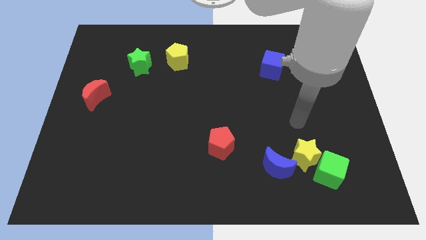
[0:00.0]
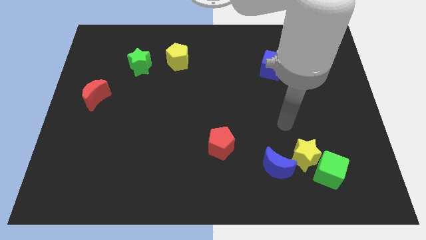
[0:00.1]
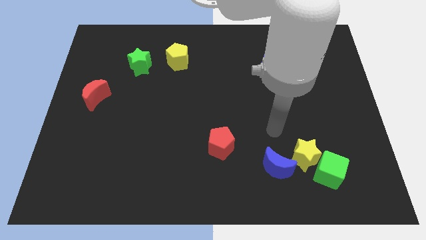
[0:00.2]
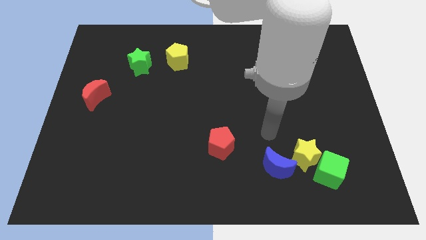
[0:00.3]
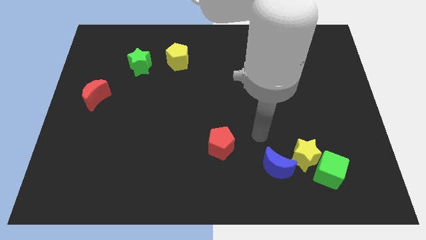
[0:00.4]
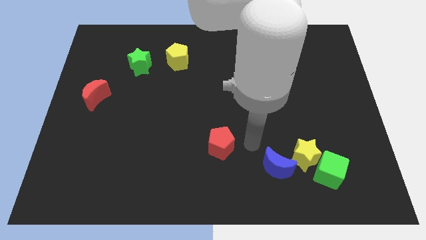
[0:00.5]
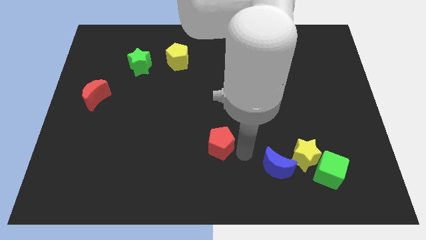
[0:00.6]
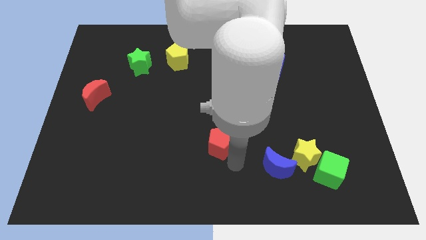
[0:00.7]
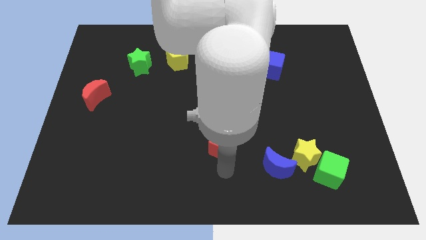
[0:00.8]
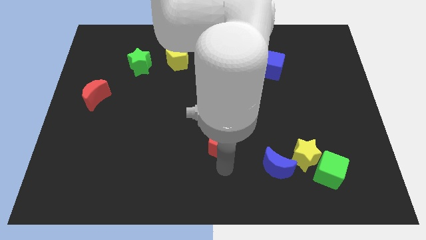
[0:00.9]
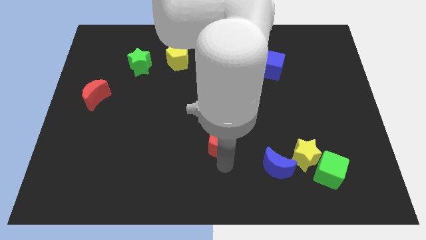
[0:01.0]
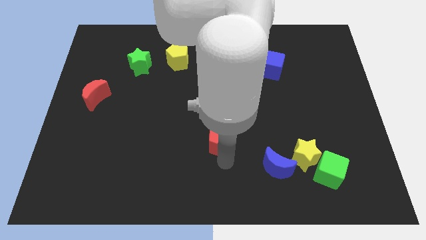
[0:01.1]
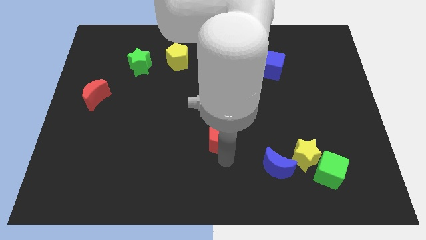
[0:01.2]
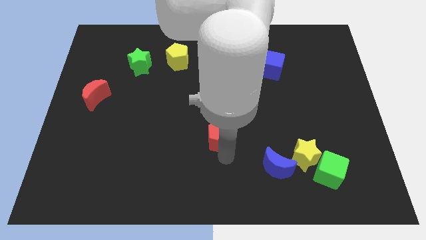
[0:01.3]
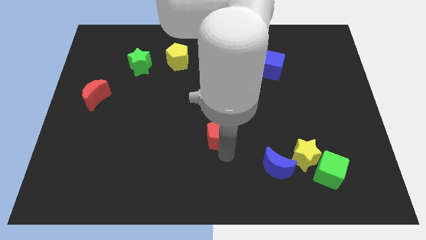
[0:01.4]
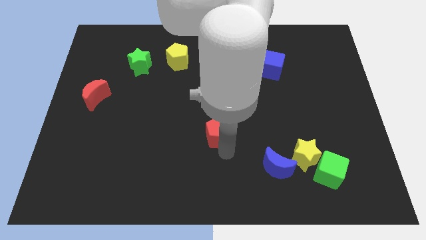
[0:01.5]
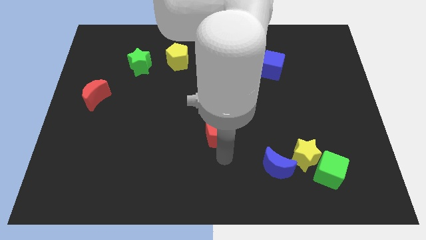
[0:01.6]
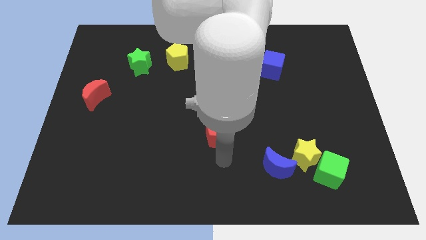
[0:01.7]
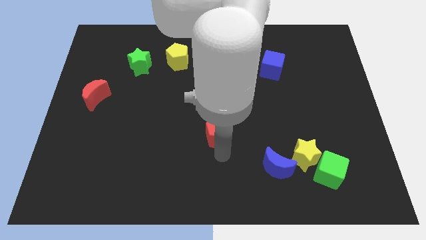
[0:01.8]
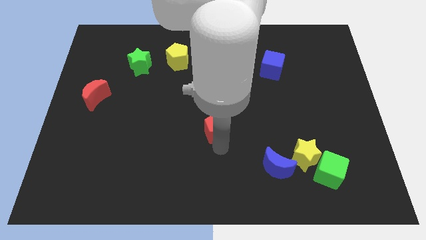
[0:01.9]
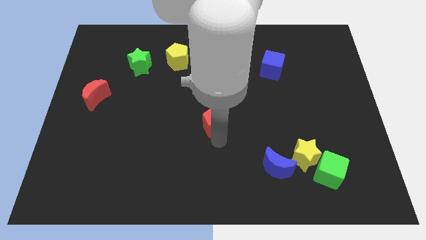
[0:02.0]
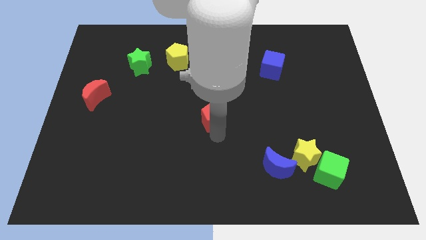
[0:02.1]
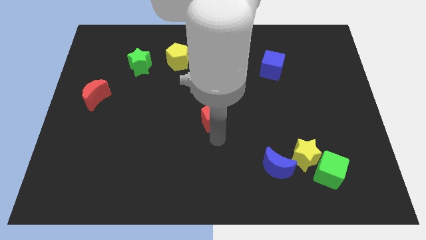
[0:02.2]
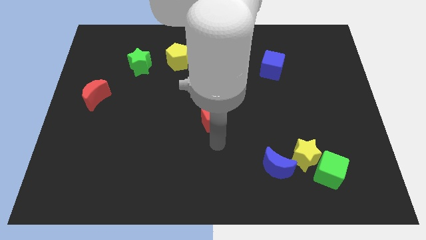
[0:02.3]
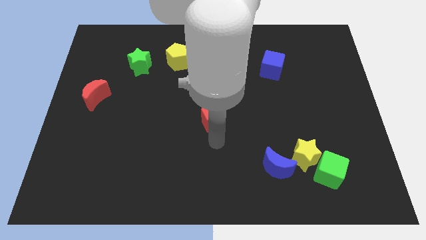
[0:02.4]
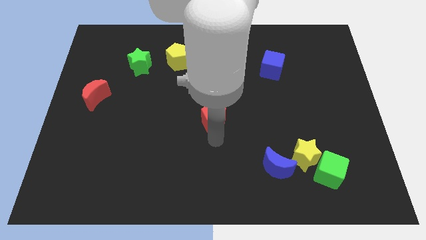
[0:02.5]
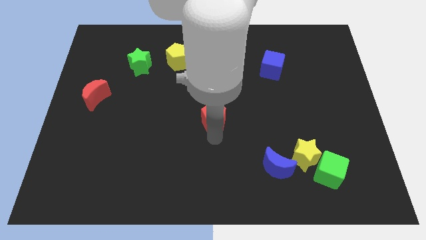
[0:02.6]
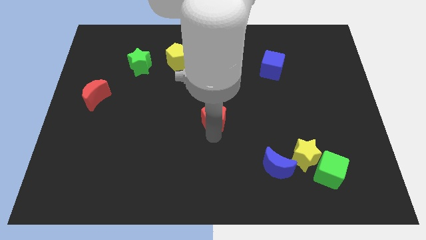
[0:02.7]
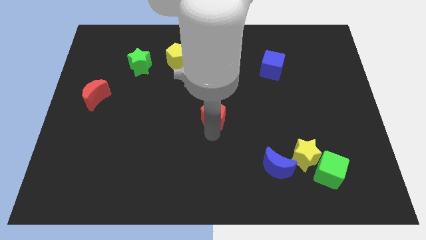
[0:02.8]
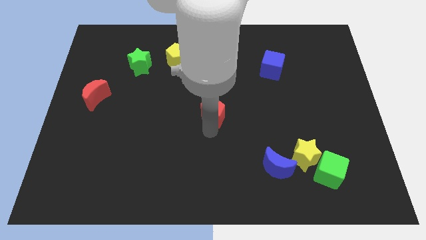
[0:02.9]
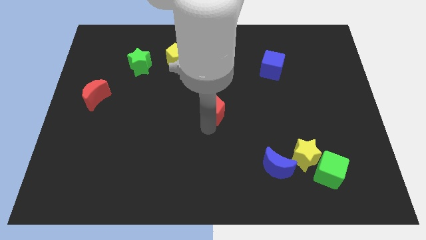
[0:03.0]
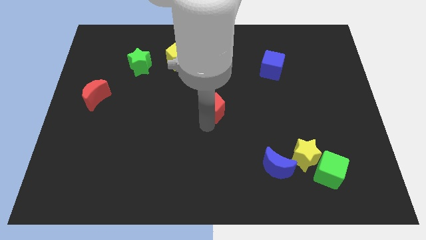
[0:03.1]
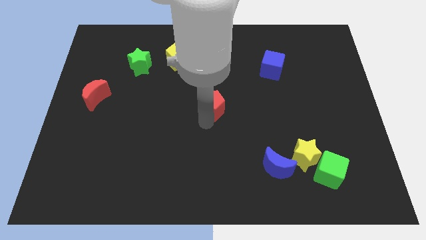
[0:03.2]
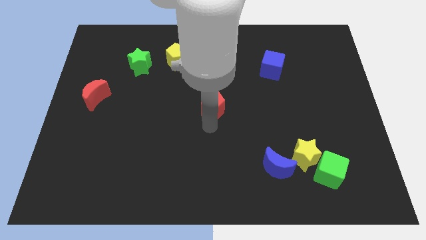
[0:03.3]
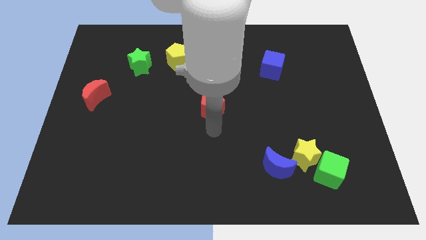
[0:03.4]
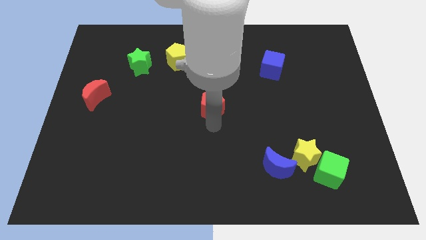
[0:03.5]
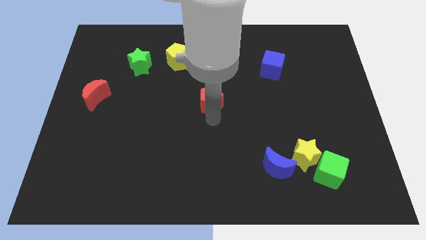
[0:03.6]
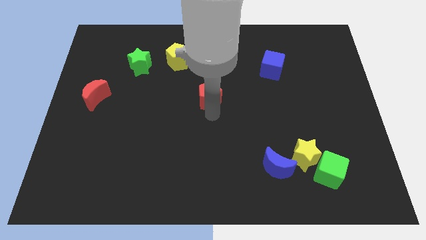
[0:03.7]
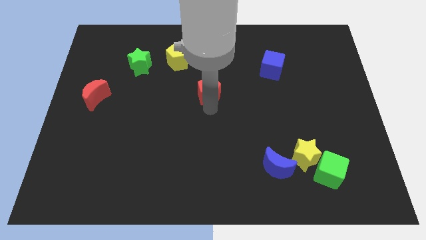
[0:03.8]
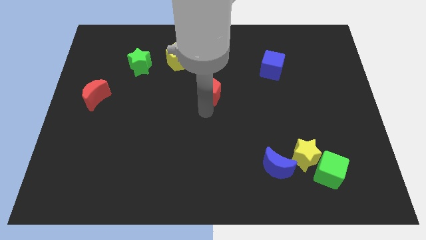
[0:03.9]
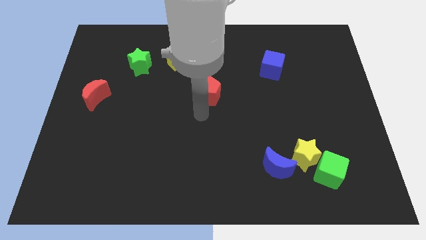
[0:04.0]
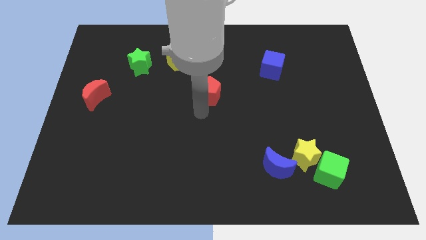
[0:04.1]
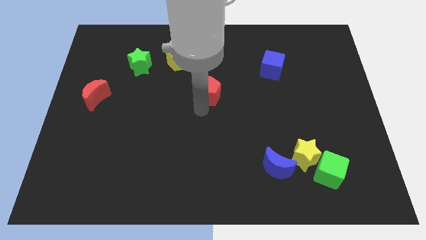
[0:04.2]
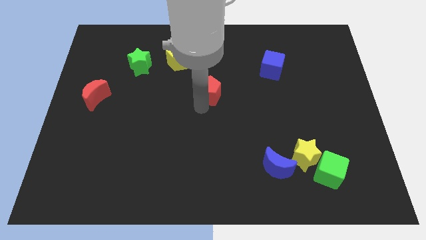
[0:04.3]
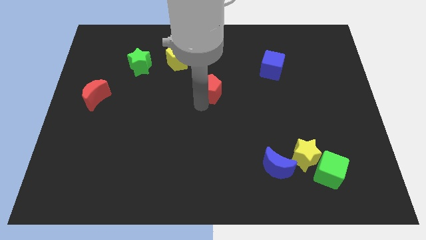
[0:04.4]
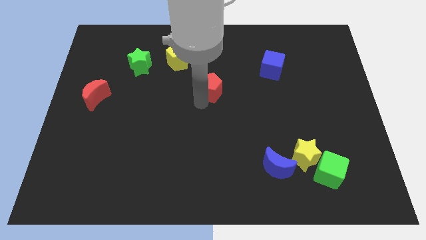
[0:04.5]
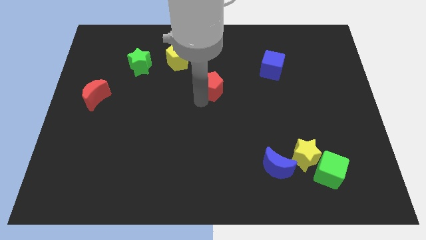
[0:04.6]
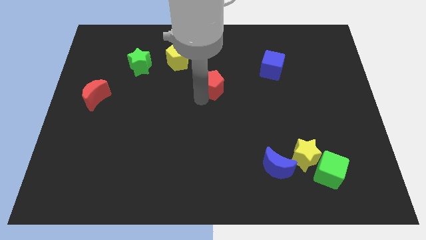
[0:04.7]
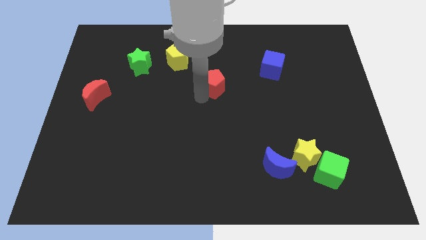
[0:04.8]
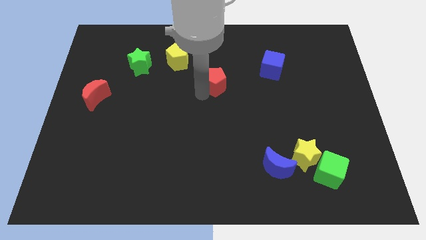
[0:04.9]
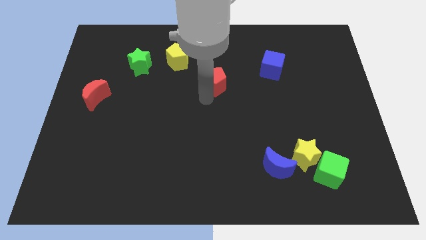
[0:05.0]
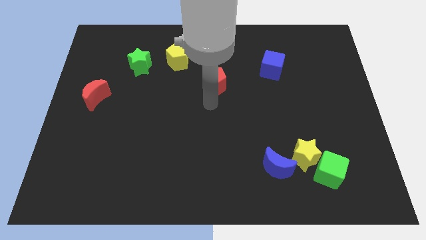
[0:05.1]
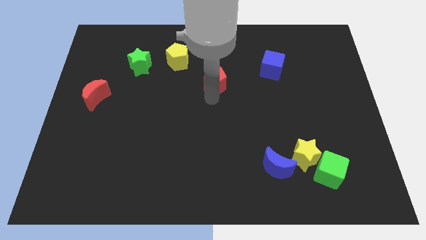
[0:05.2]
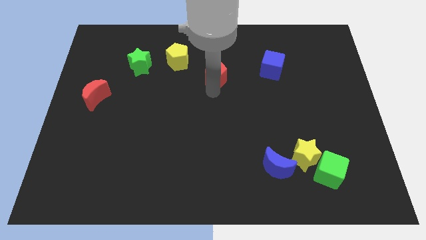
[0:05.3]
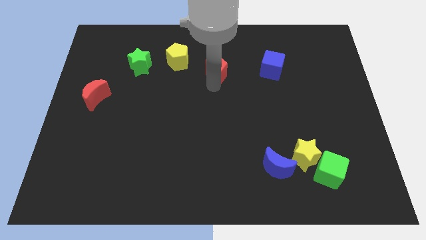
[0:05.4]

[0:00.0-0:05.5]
move the red pentagon just right of the yellow pentagon
